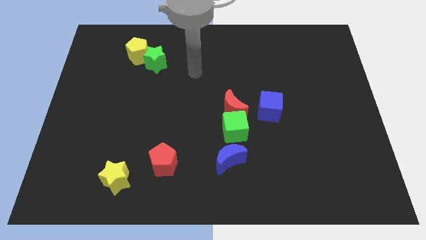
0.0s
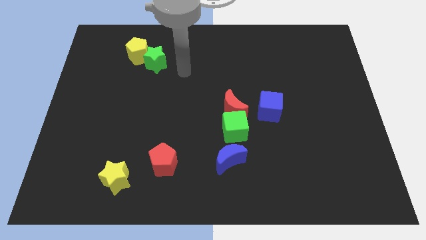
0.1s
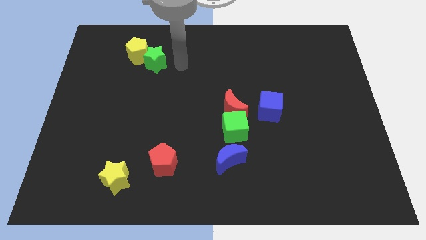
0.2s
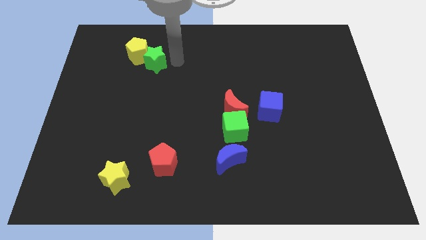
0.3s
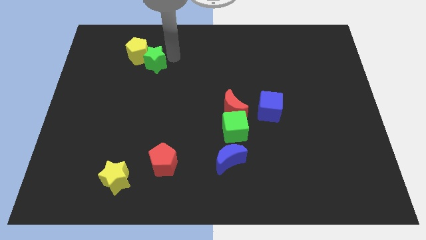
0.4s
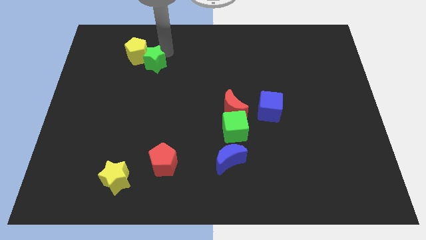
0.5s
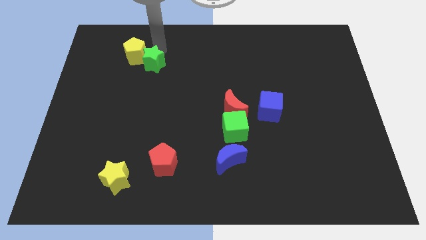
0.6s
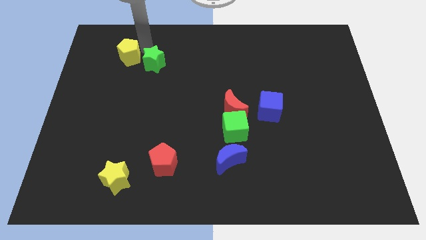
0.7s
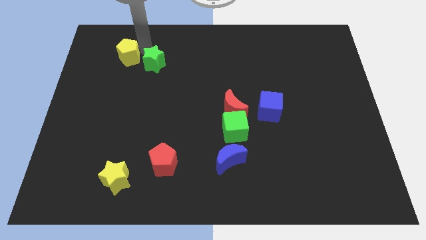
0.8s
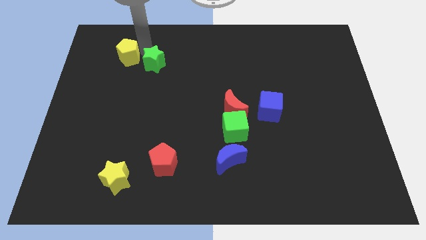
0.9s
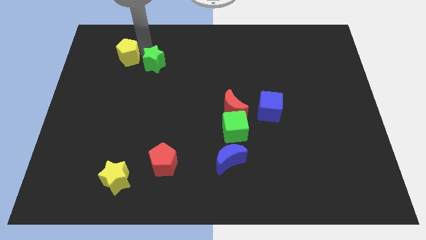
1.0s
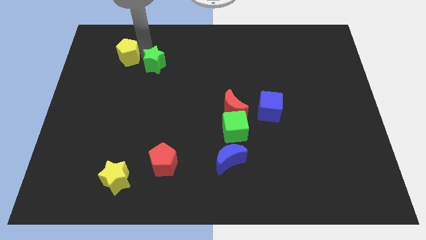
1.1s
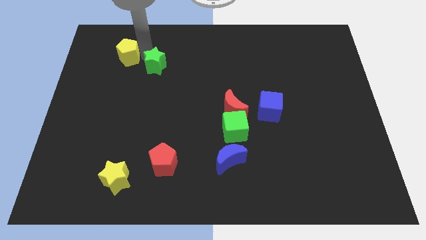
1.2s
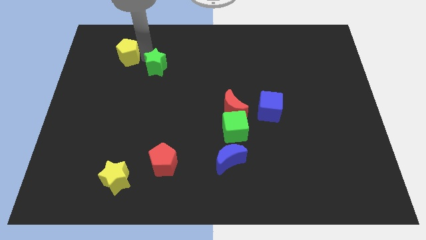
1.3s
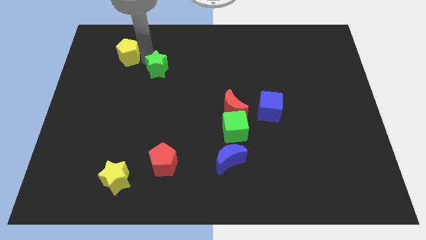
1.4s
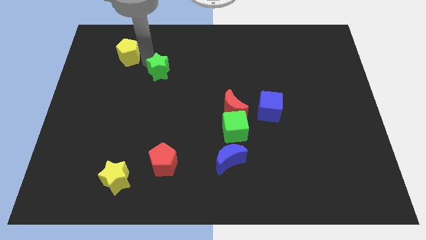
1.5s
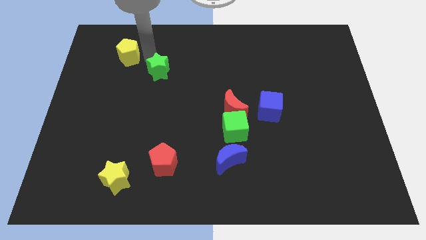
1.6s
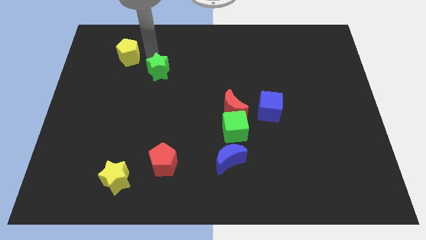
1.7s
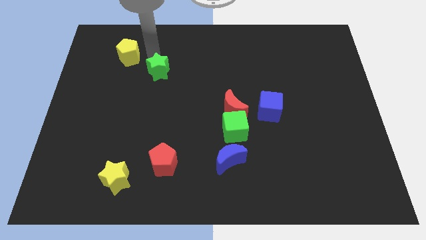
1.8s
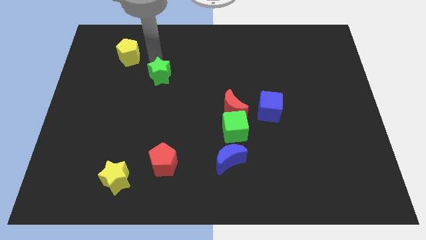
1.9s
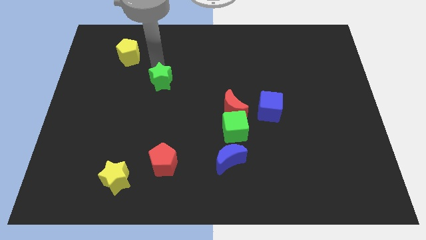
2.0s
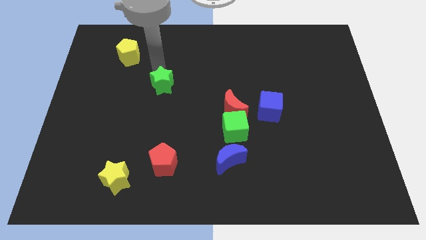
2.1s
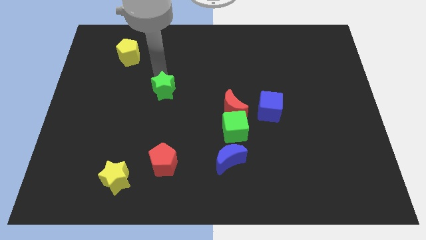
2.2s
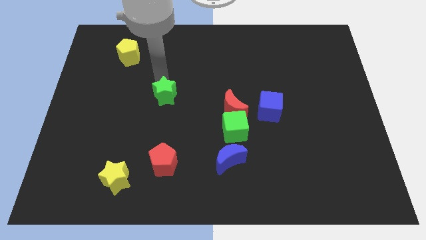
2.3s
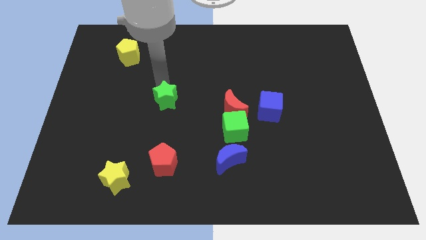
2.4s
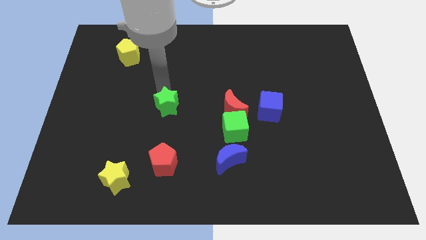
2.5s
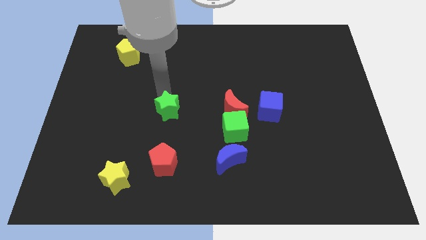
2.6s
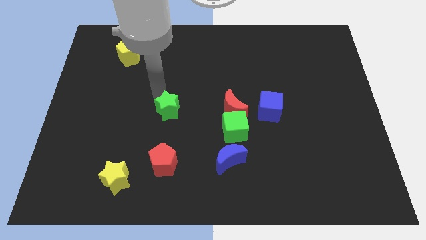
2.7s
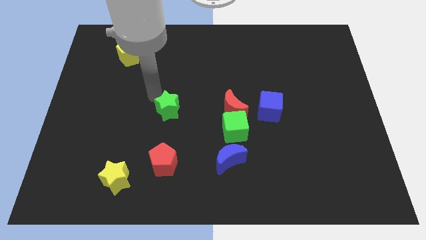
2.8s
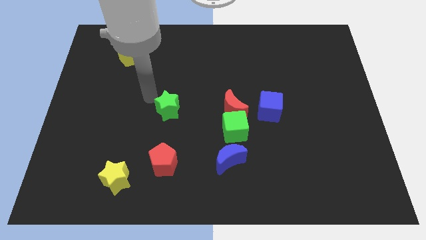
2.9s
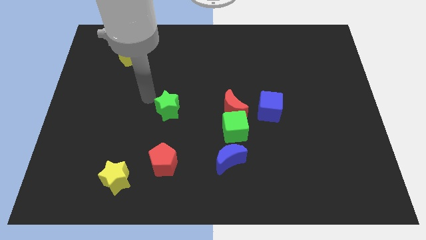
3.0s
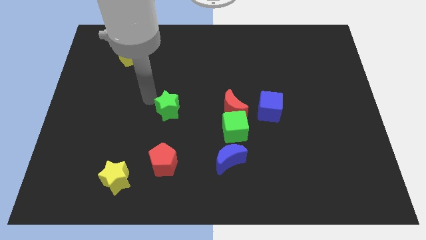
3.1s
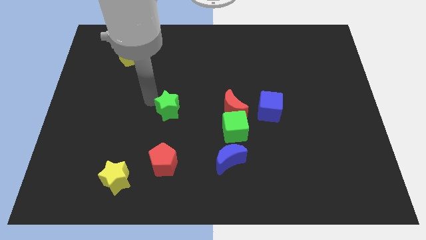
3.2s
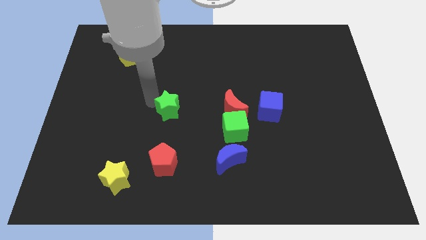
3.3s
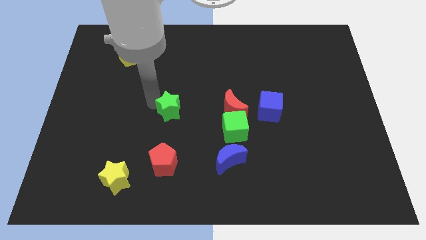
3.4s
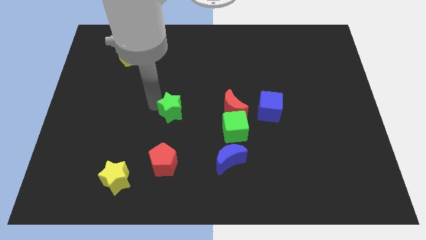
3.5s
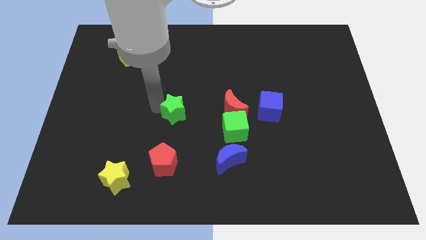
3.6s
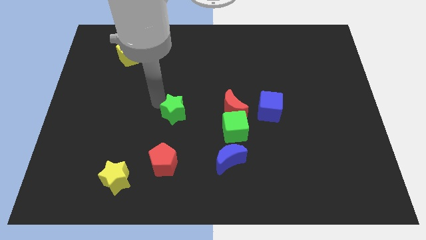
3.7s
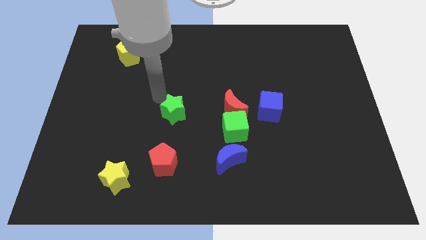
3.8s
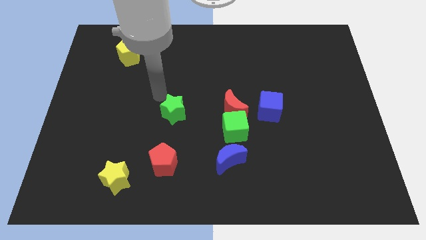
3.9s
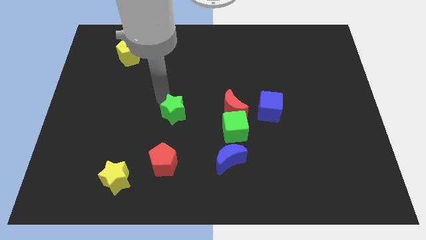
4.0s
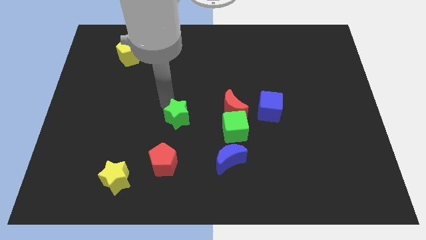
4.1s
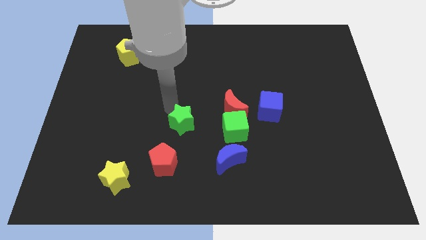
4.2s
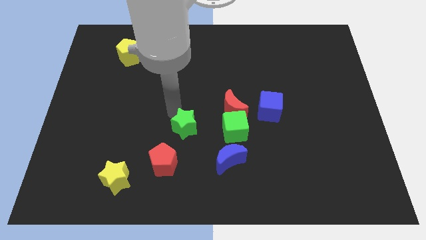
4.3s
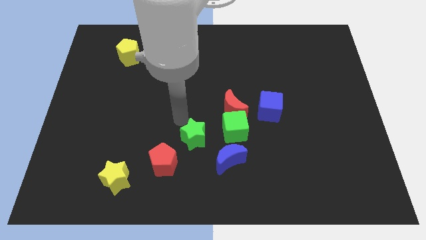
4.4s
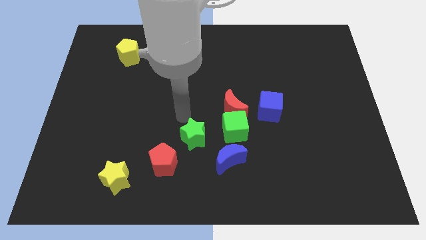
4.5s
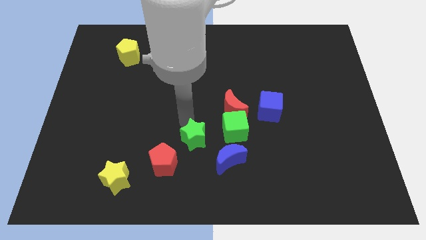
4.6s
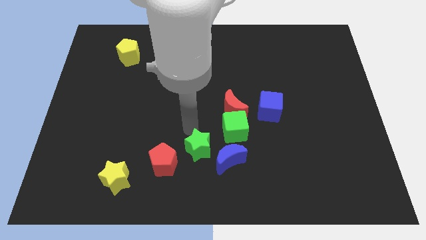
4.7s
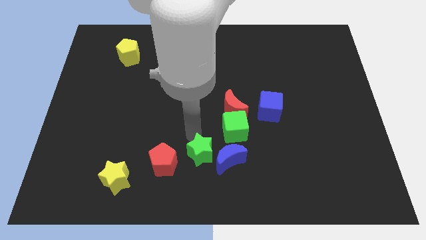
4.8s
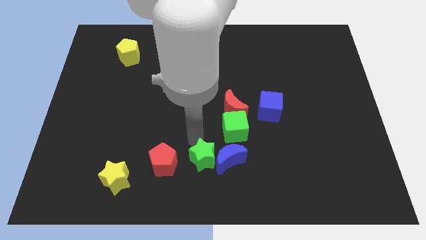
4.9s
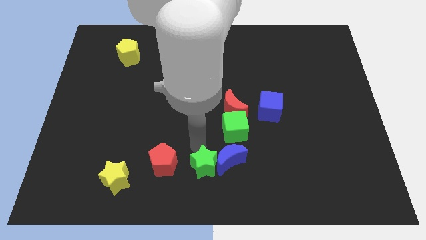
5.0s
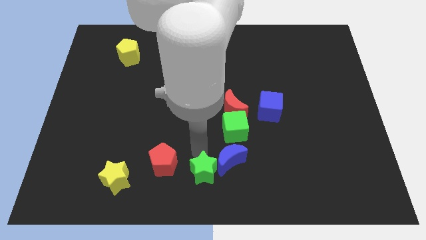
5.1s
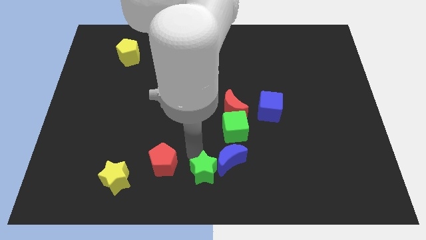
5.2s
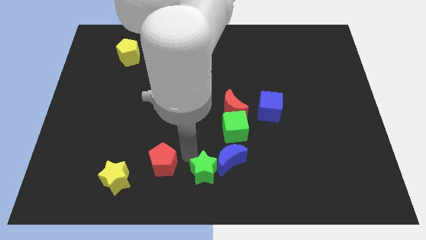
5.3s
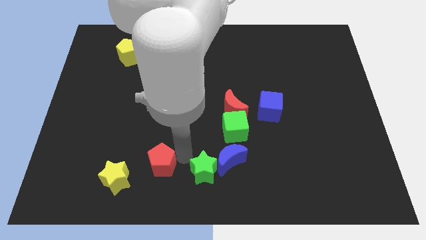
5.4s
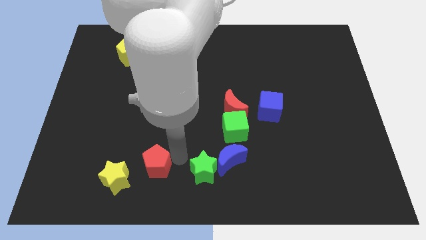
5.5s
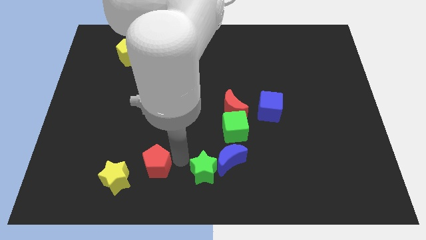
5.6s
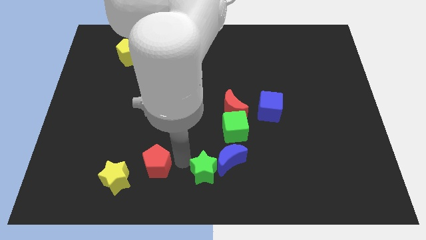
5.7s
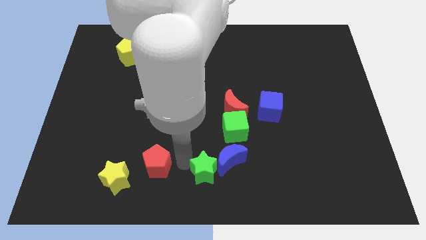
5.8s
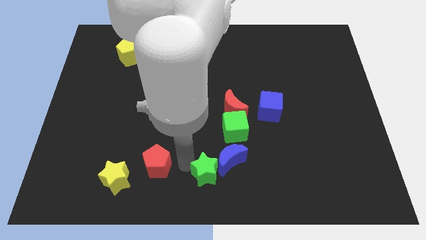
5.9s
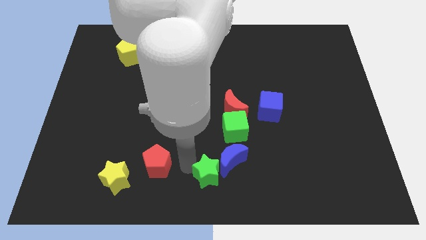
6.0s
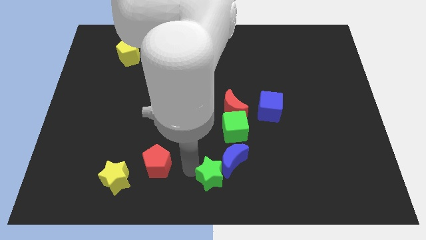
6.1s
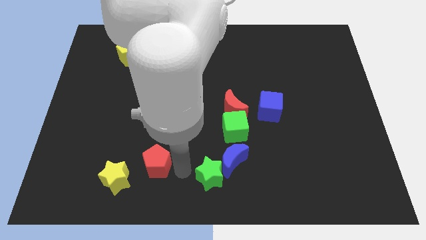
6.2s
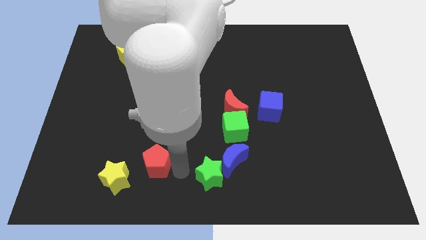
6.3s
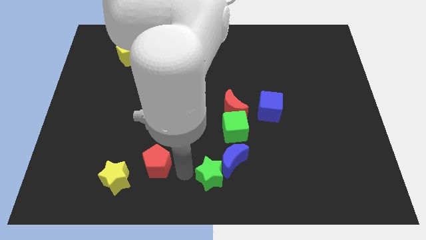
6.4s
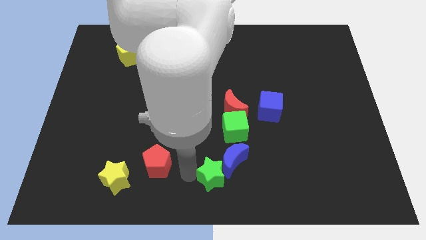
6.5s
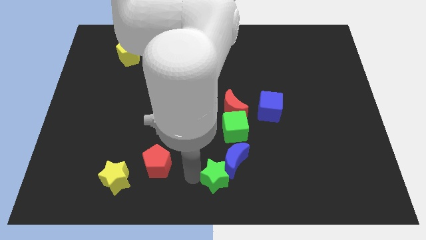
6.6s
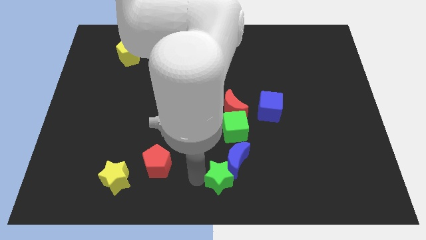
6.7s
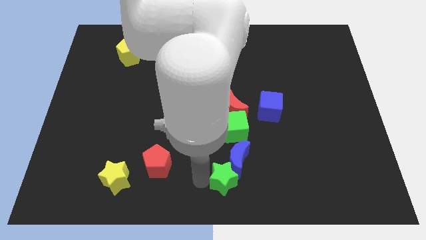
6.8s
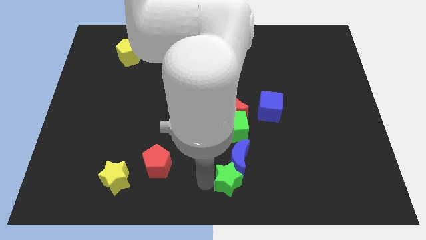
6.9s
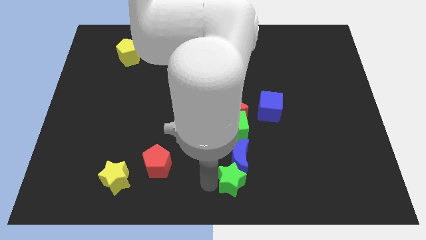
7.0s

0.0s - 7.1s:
push the green star to the bottom right of the blue moon

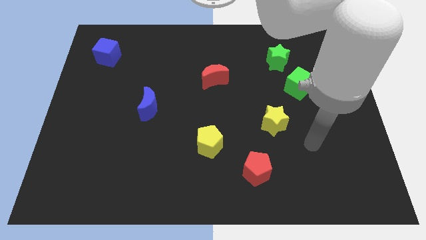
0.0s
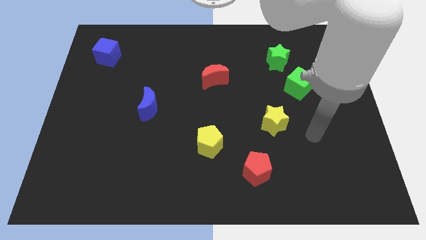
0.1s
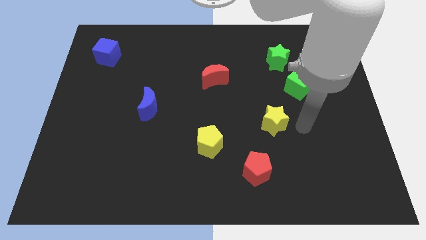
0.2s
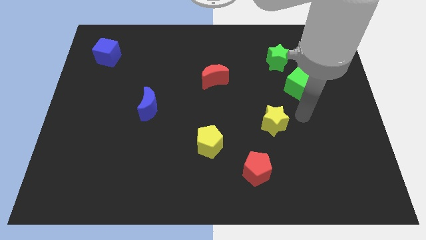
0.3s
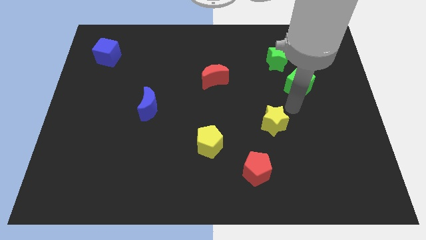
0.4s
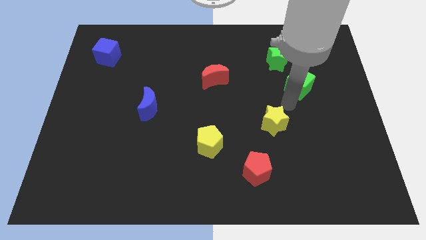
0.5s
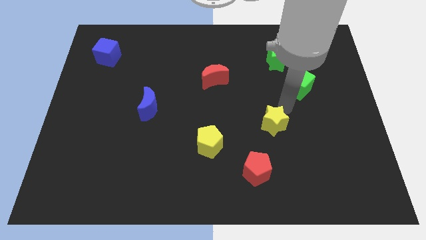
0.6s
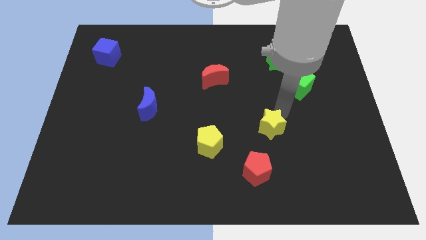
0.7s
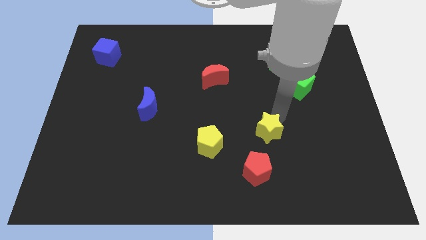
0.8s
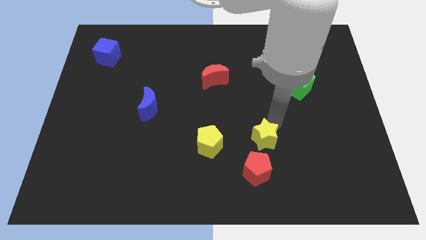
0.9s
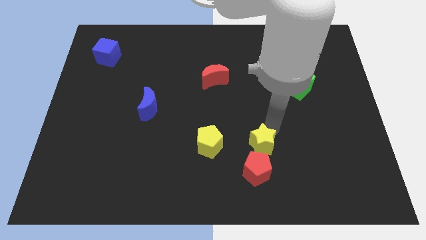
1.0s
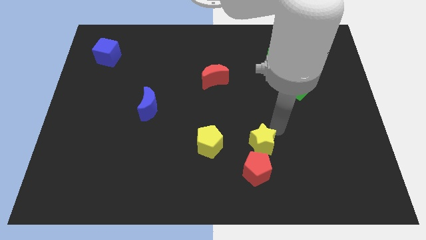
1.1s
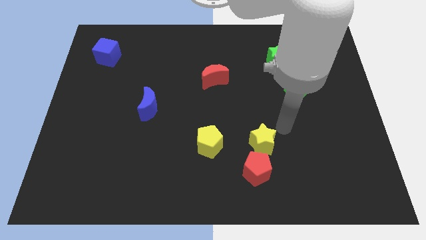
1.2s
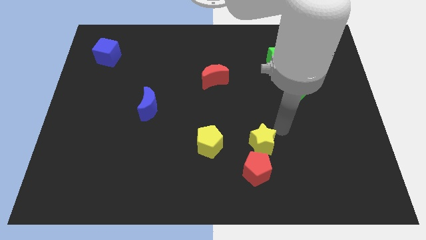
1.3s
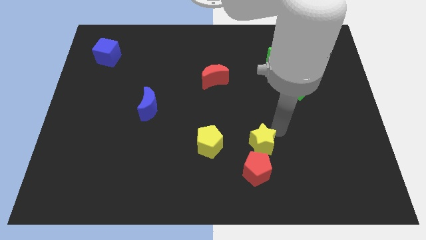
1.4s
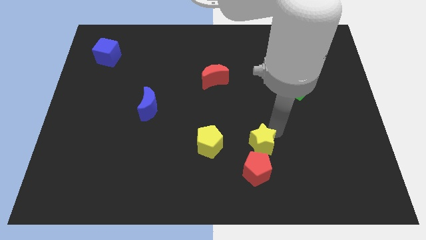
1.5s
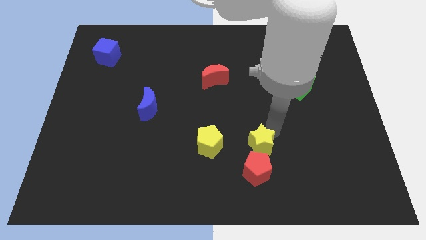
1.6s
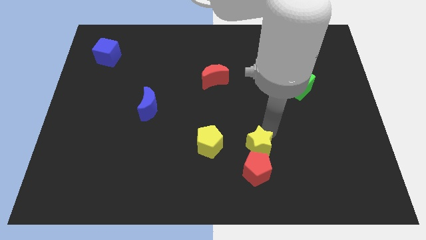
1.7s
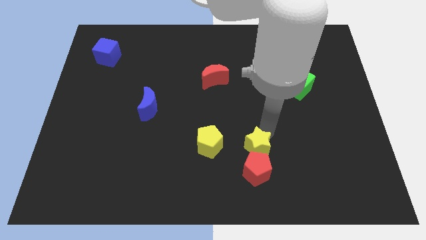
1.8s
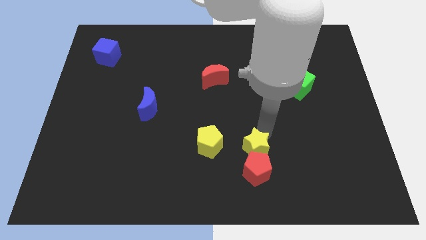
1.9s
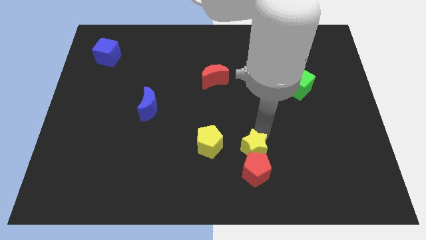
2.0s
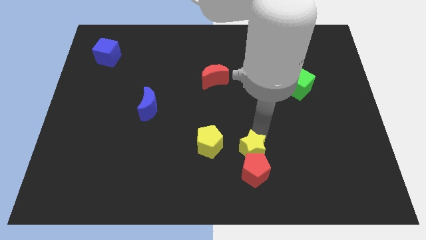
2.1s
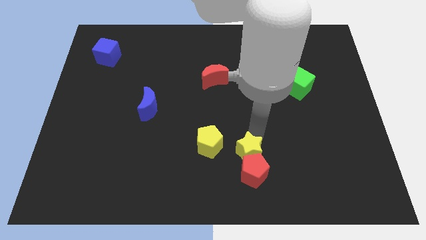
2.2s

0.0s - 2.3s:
move the yellow star to the bottom right side of the yellow pentagon
